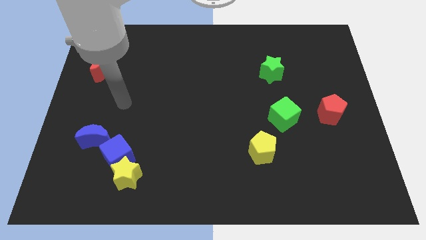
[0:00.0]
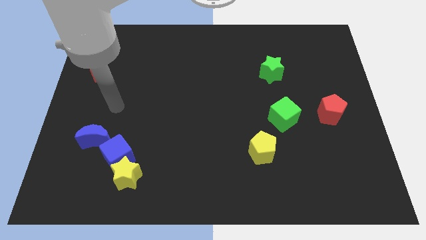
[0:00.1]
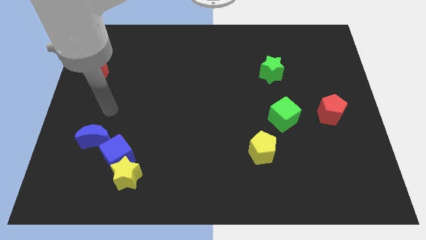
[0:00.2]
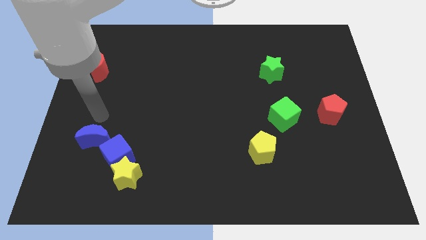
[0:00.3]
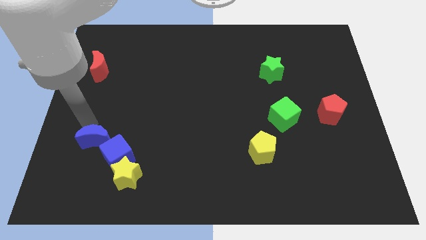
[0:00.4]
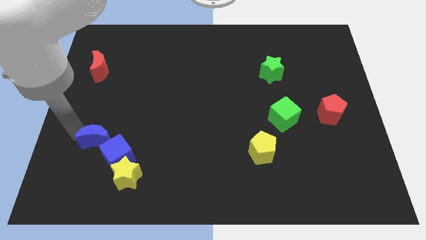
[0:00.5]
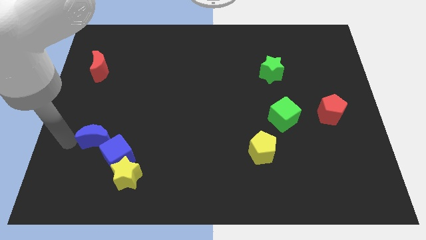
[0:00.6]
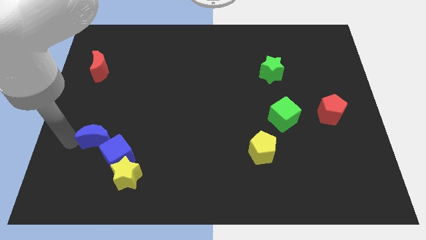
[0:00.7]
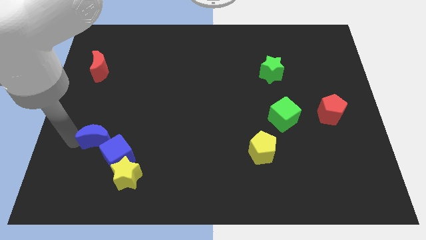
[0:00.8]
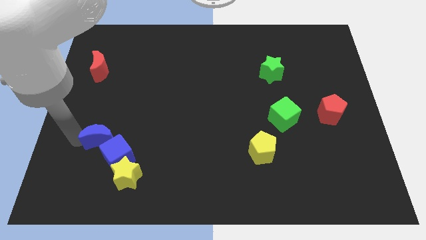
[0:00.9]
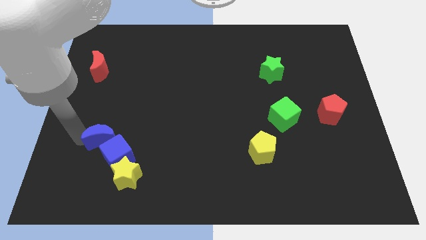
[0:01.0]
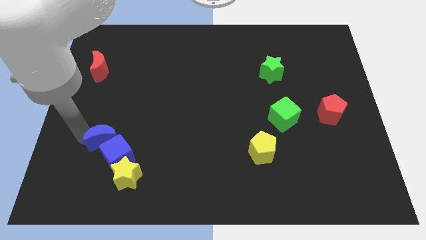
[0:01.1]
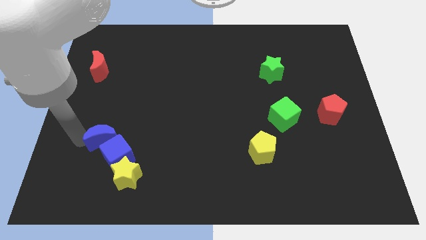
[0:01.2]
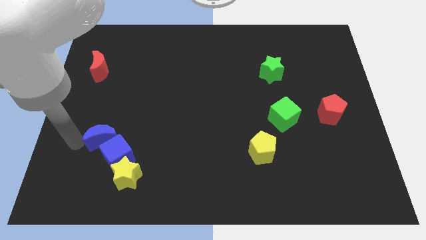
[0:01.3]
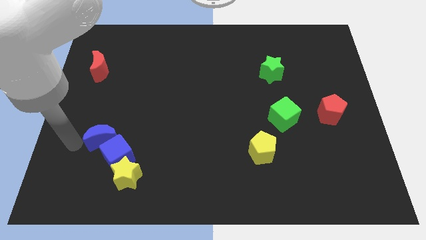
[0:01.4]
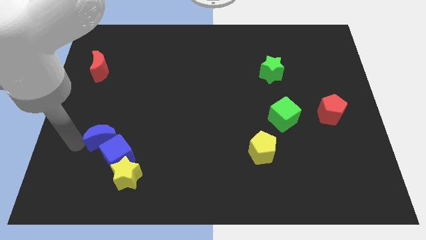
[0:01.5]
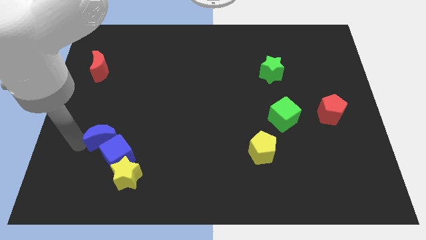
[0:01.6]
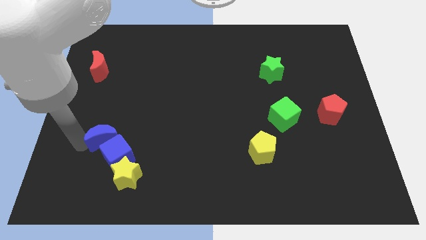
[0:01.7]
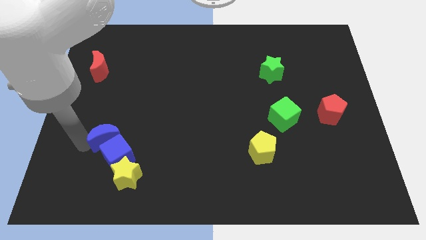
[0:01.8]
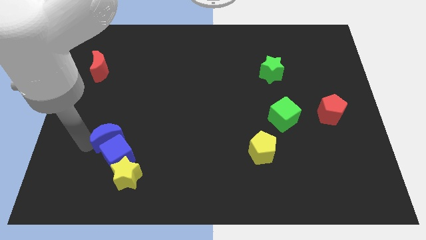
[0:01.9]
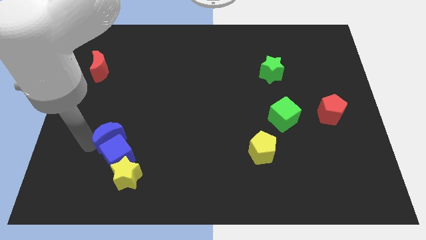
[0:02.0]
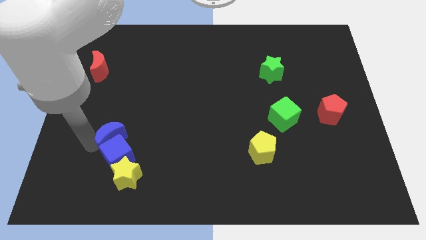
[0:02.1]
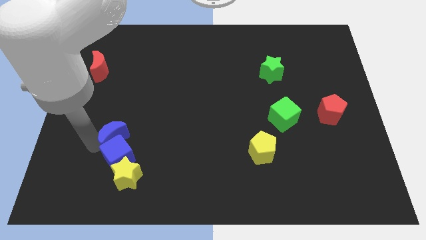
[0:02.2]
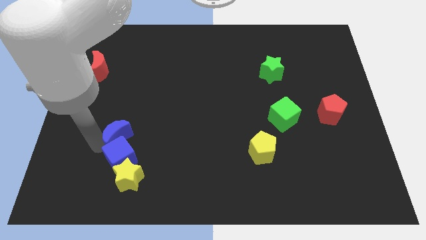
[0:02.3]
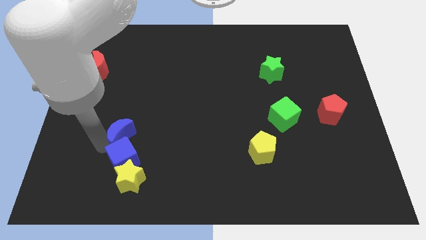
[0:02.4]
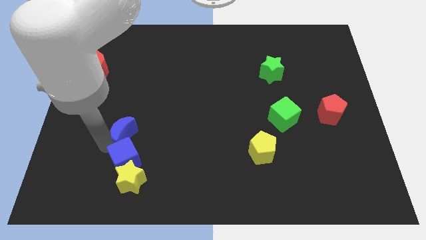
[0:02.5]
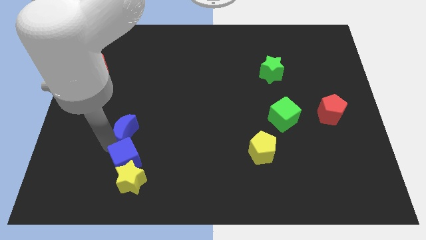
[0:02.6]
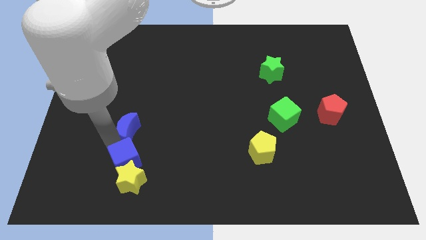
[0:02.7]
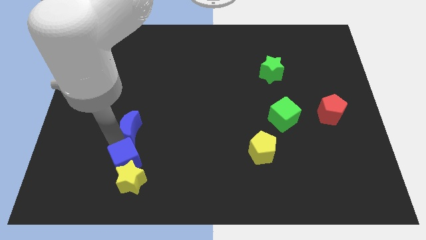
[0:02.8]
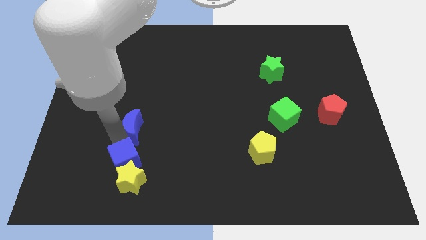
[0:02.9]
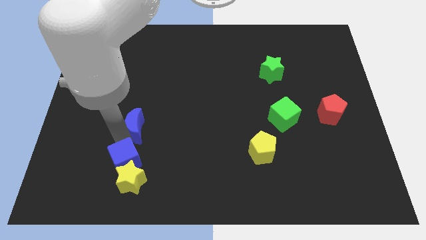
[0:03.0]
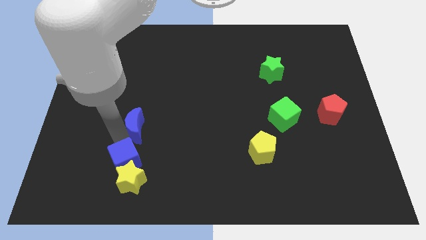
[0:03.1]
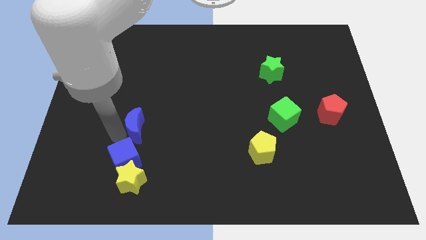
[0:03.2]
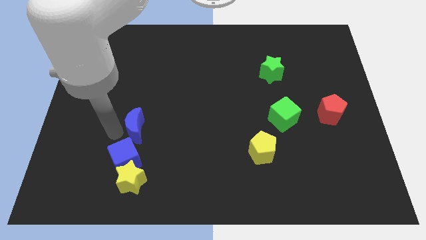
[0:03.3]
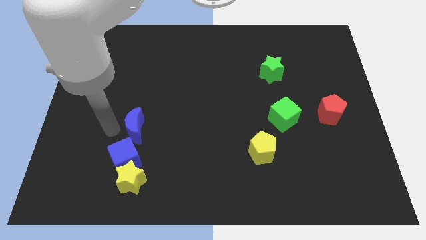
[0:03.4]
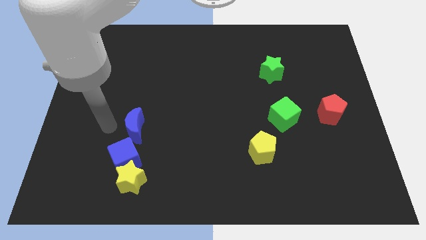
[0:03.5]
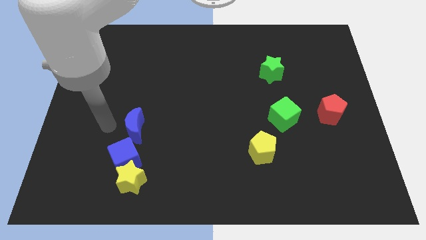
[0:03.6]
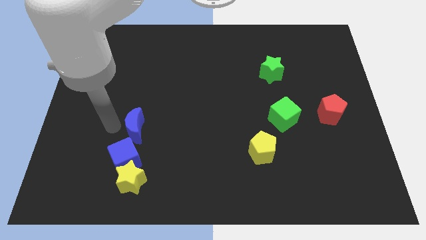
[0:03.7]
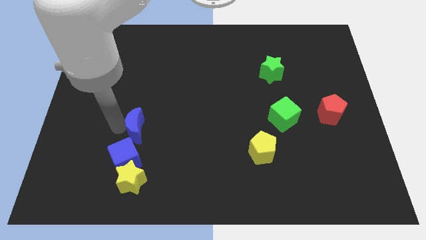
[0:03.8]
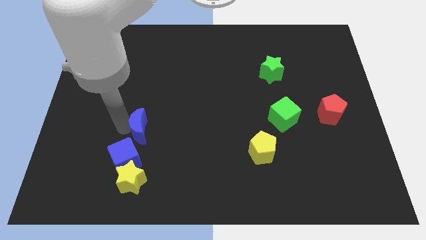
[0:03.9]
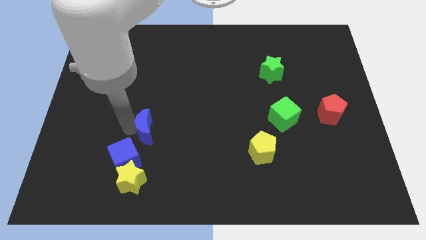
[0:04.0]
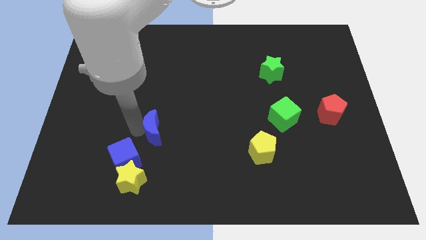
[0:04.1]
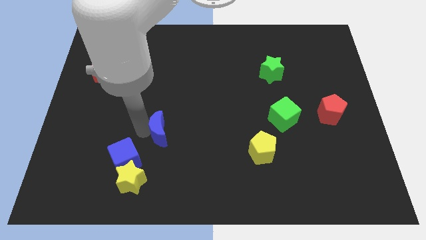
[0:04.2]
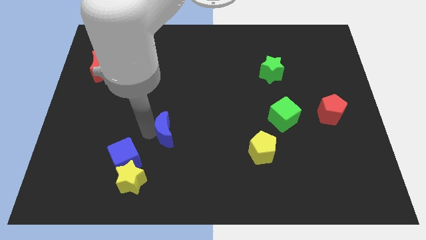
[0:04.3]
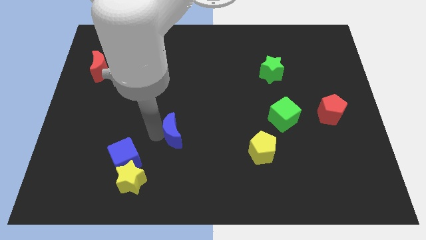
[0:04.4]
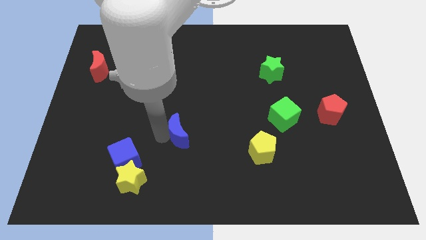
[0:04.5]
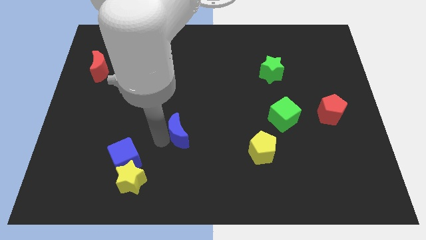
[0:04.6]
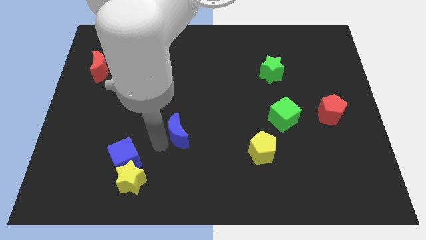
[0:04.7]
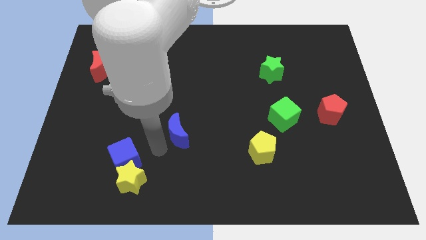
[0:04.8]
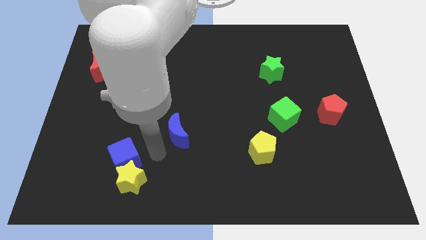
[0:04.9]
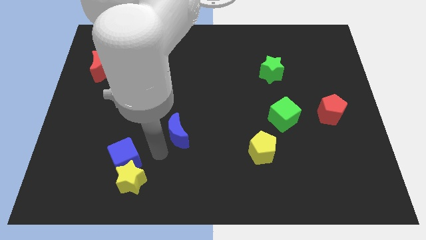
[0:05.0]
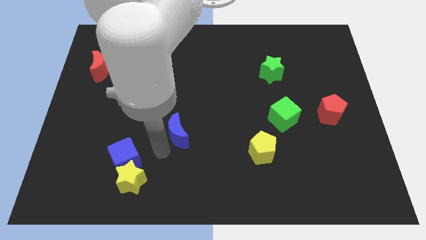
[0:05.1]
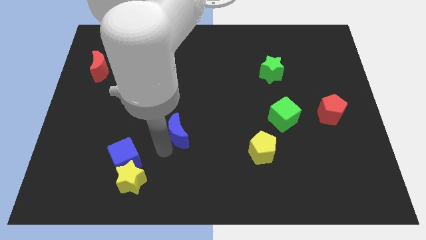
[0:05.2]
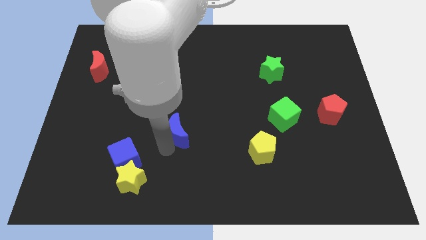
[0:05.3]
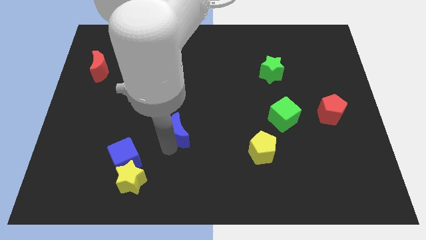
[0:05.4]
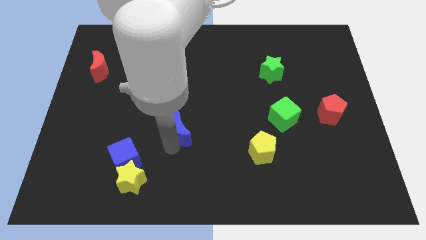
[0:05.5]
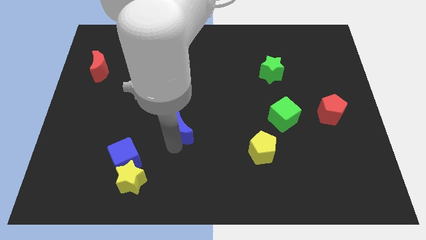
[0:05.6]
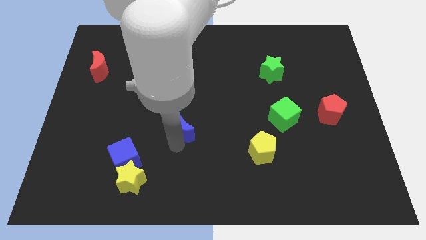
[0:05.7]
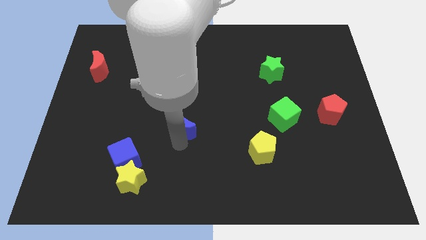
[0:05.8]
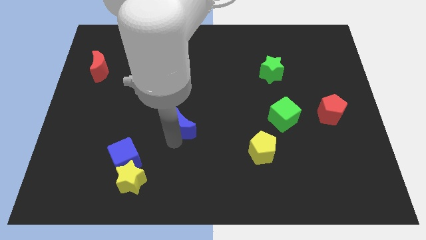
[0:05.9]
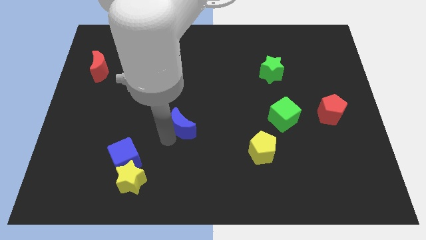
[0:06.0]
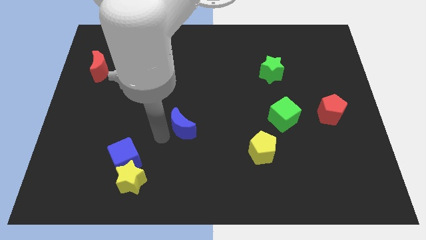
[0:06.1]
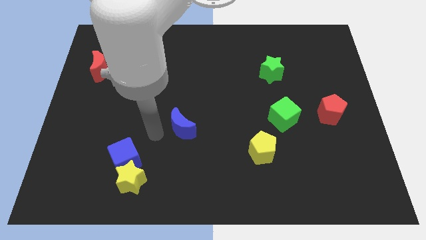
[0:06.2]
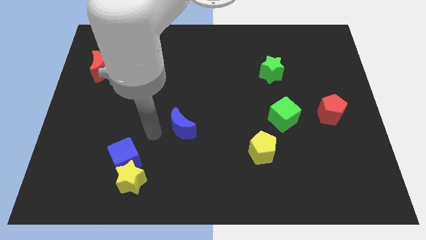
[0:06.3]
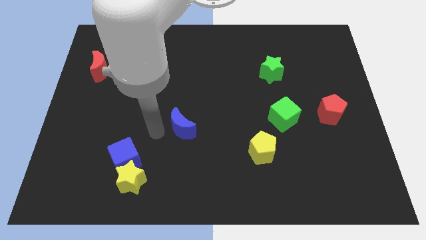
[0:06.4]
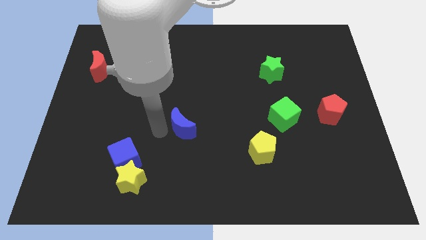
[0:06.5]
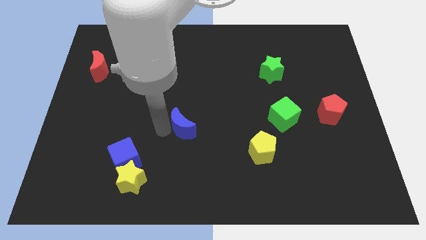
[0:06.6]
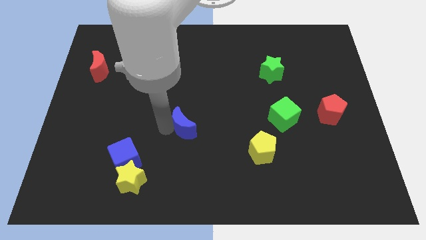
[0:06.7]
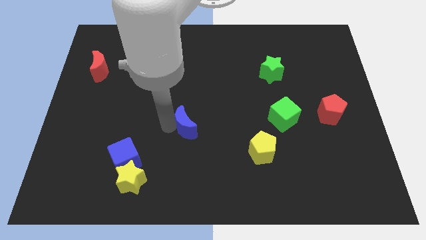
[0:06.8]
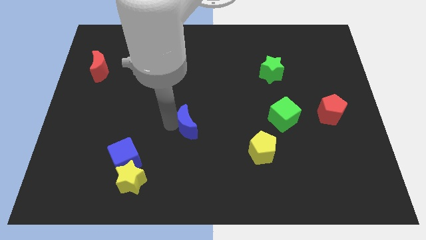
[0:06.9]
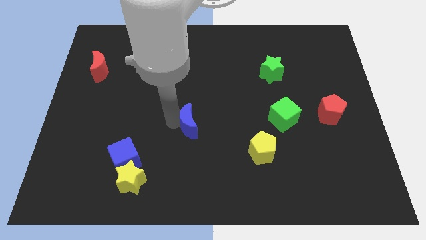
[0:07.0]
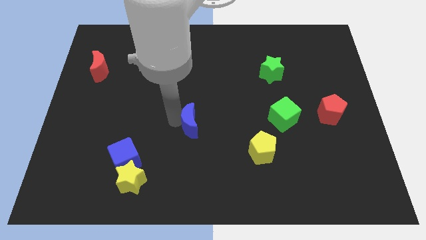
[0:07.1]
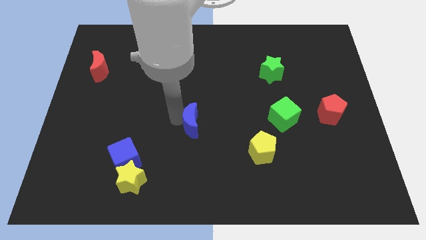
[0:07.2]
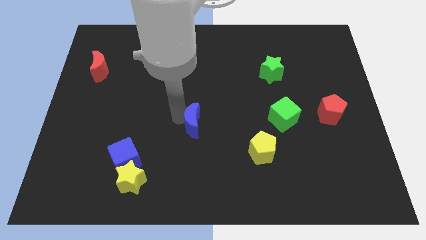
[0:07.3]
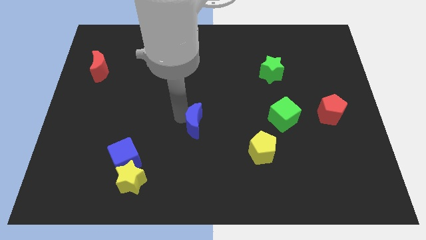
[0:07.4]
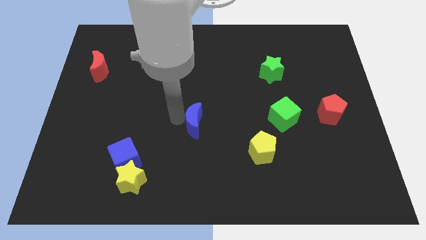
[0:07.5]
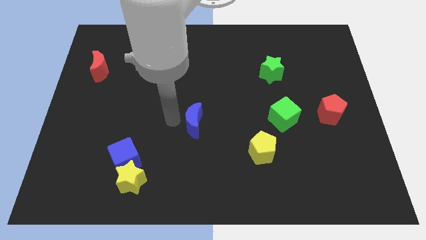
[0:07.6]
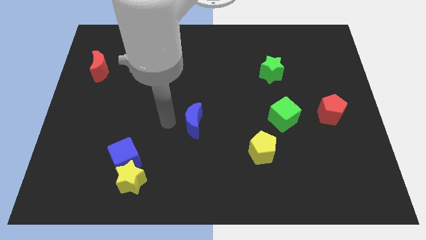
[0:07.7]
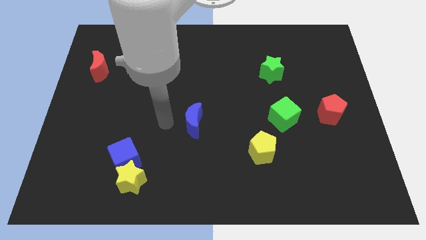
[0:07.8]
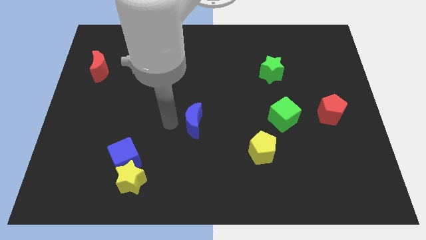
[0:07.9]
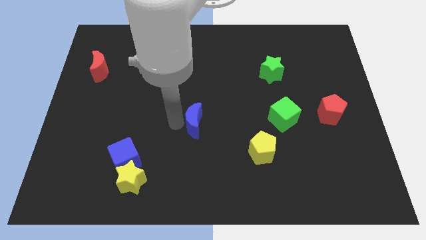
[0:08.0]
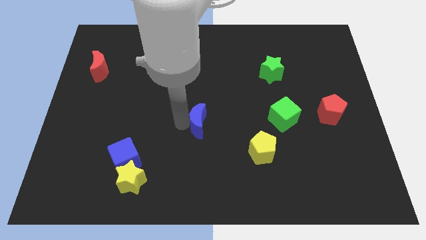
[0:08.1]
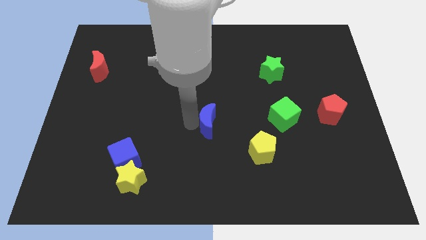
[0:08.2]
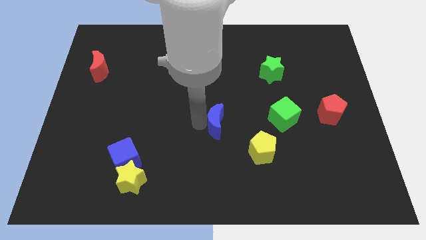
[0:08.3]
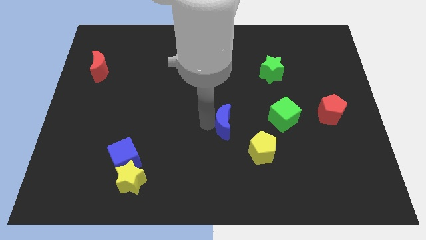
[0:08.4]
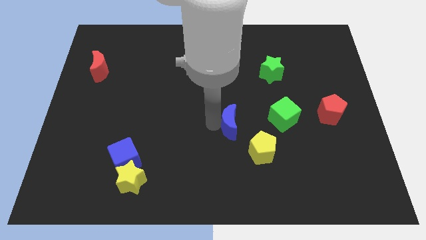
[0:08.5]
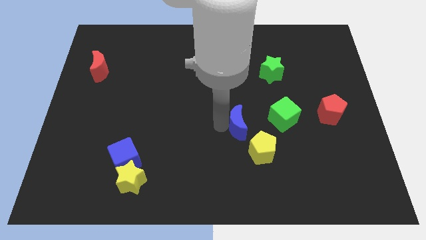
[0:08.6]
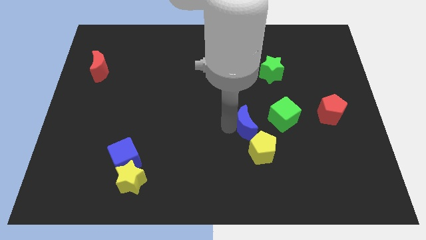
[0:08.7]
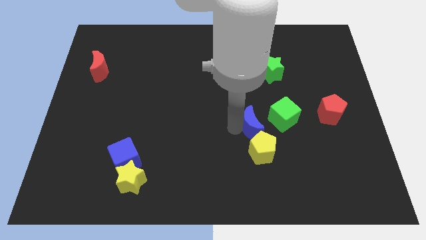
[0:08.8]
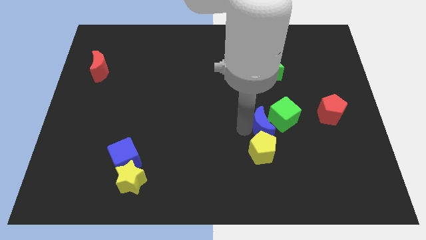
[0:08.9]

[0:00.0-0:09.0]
put the blue moon towards the green cube
